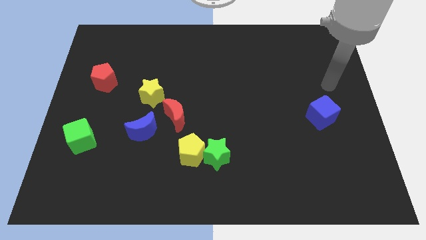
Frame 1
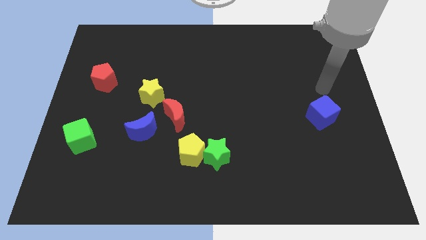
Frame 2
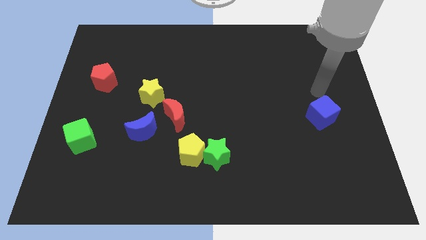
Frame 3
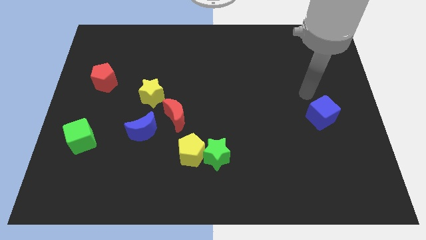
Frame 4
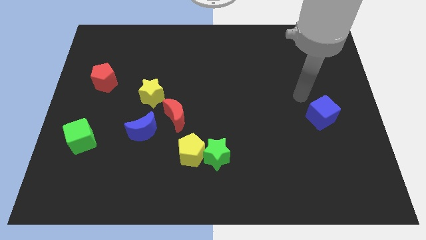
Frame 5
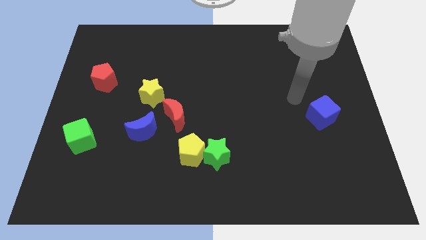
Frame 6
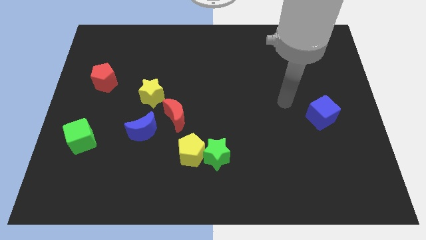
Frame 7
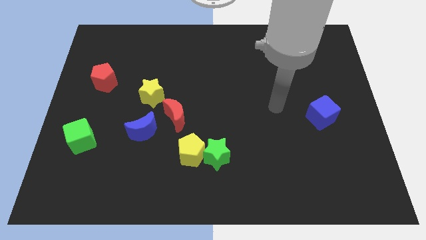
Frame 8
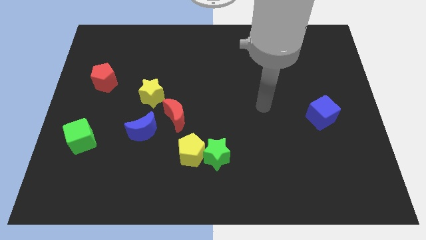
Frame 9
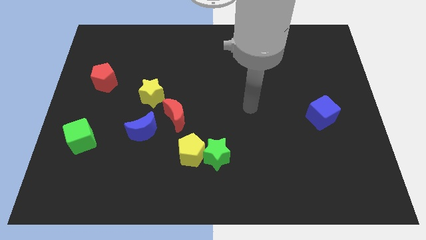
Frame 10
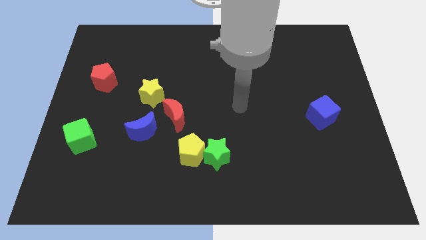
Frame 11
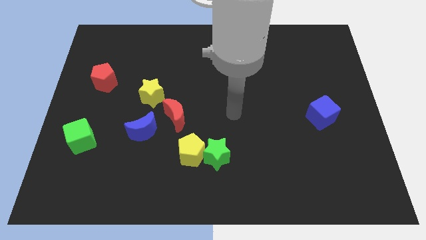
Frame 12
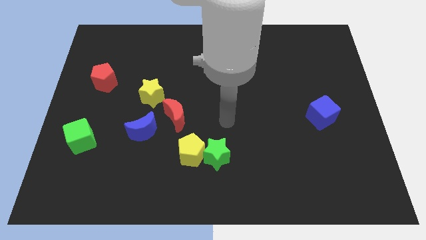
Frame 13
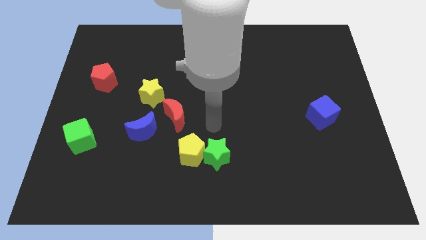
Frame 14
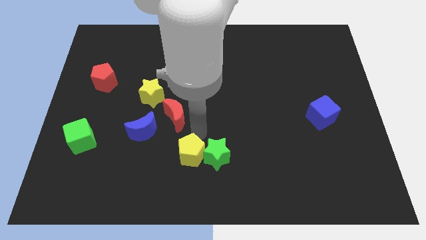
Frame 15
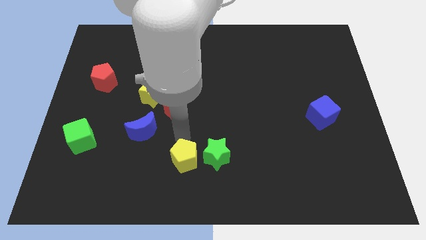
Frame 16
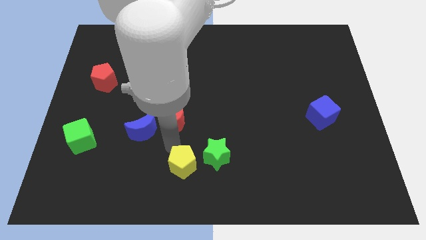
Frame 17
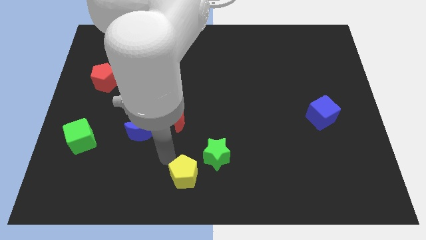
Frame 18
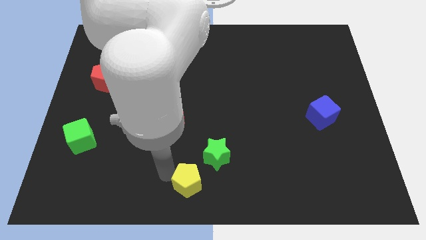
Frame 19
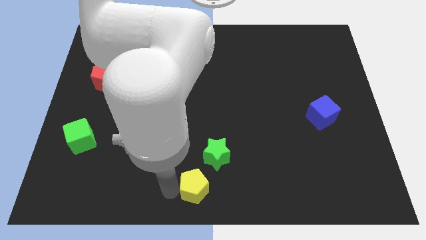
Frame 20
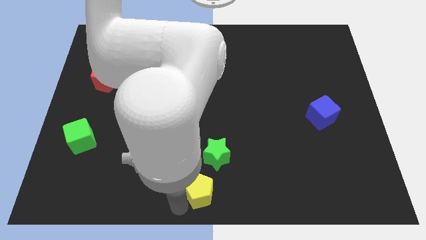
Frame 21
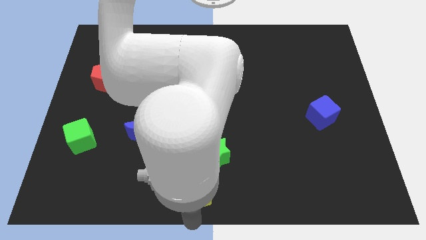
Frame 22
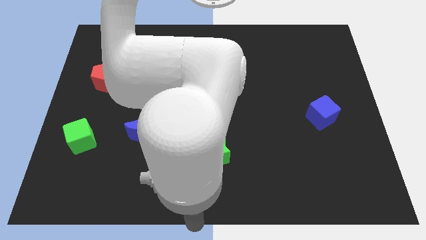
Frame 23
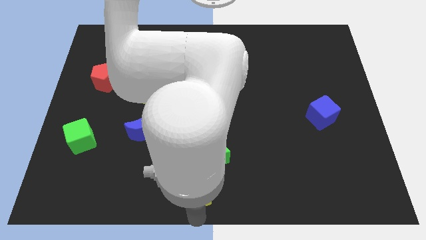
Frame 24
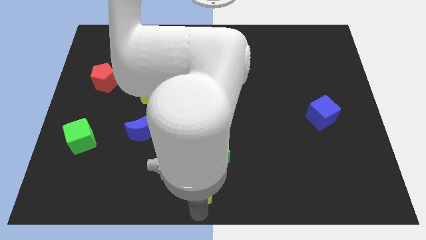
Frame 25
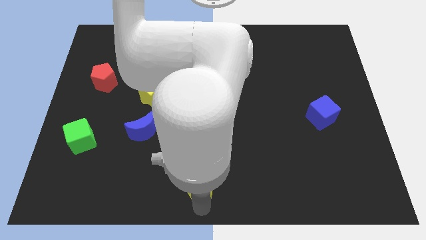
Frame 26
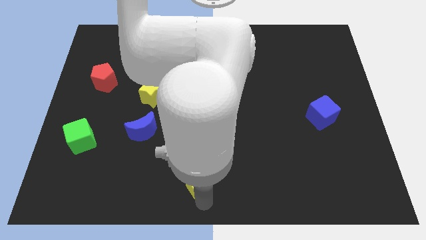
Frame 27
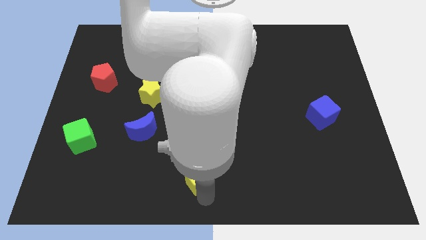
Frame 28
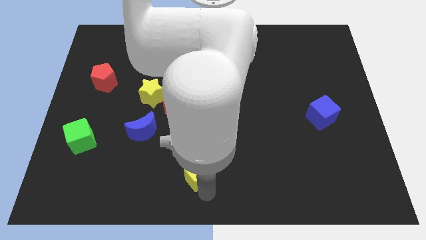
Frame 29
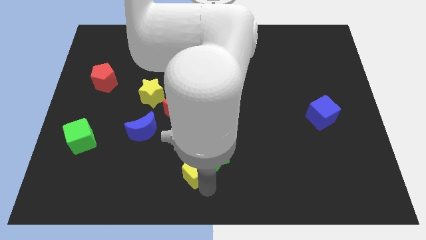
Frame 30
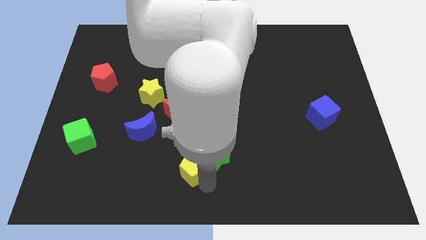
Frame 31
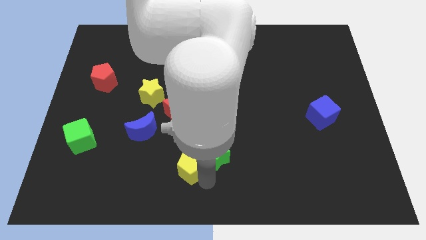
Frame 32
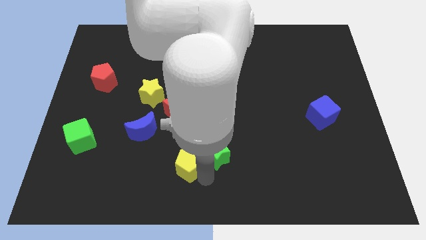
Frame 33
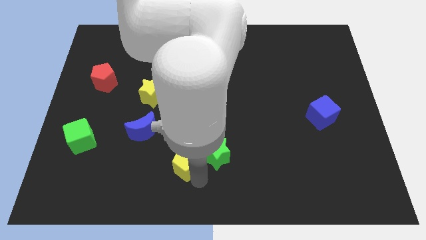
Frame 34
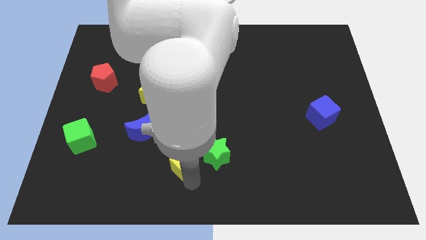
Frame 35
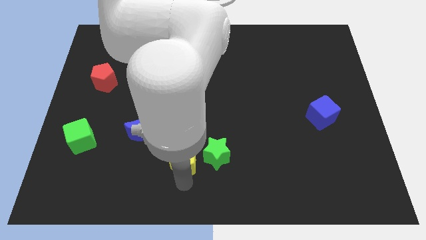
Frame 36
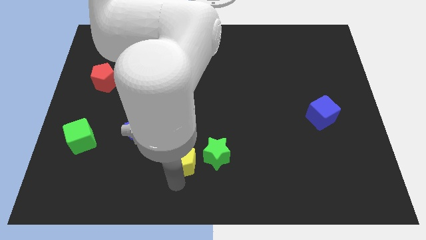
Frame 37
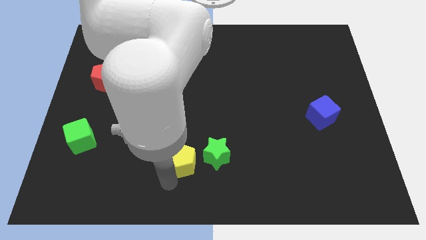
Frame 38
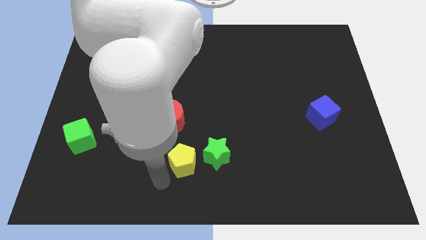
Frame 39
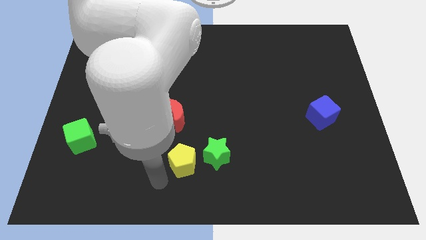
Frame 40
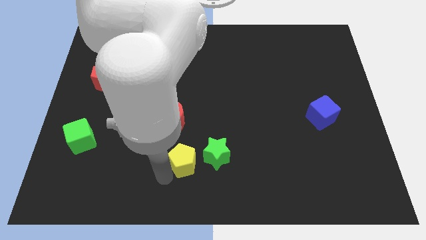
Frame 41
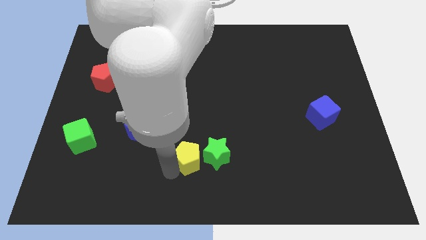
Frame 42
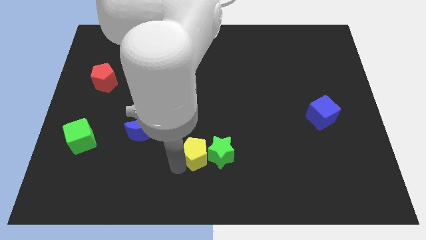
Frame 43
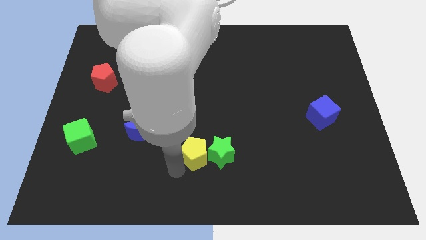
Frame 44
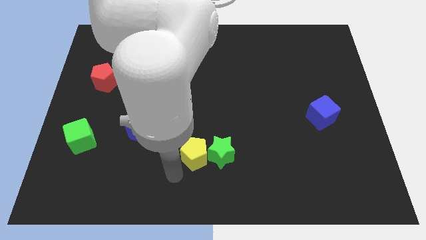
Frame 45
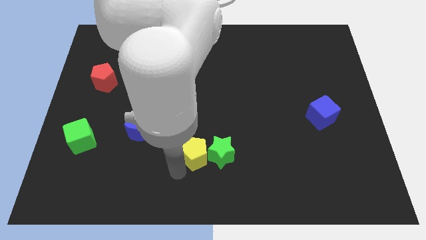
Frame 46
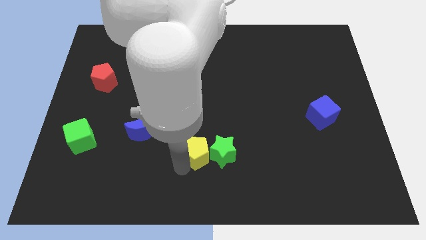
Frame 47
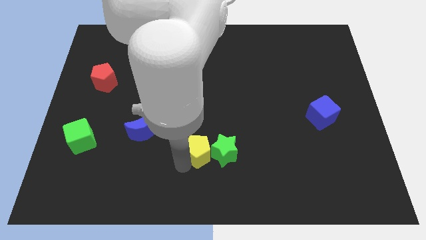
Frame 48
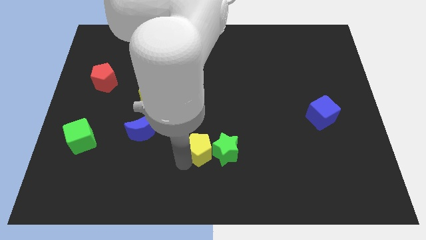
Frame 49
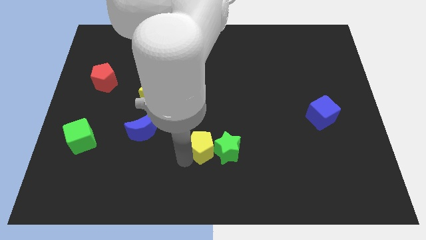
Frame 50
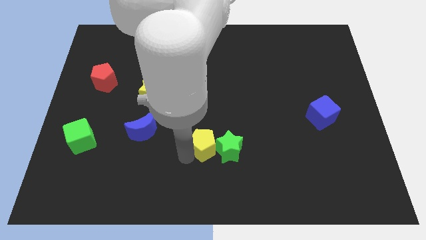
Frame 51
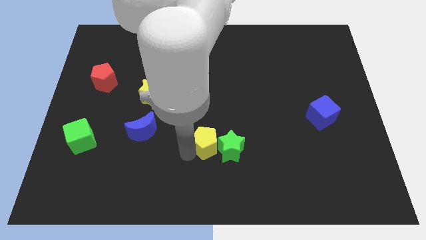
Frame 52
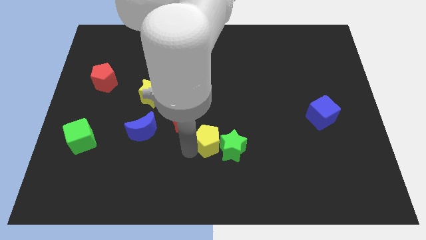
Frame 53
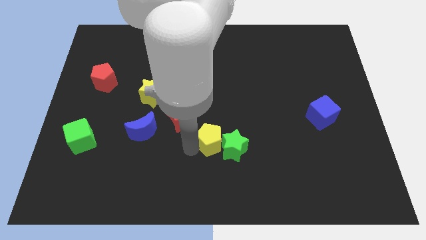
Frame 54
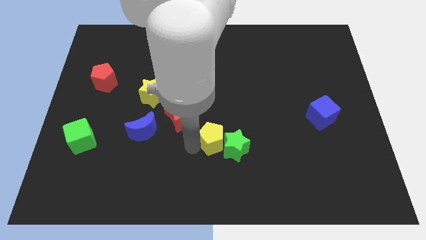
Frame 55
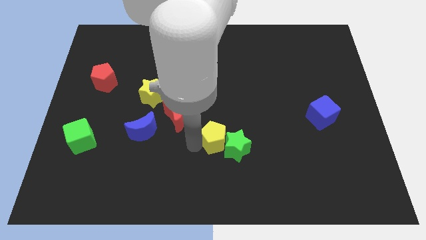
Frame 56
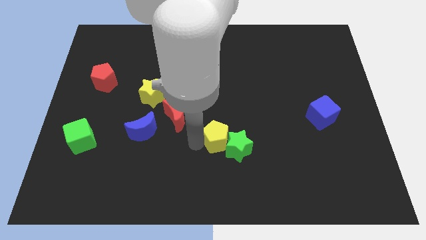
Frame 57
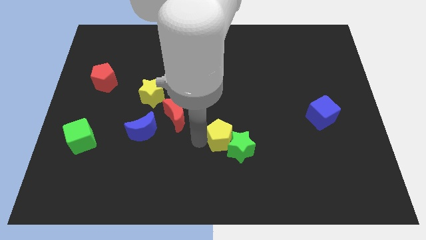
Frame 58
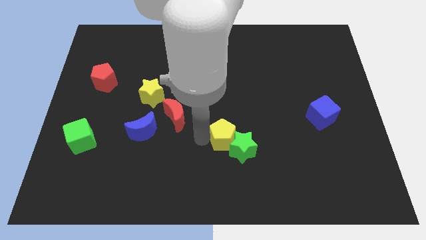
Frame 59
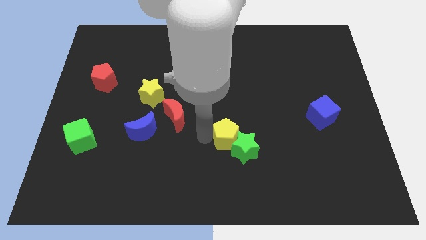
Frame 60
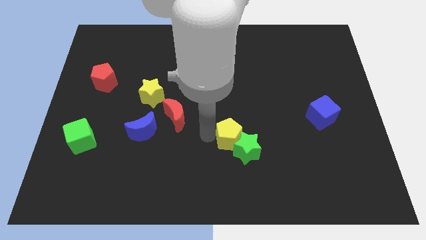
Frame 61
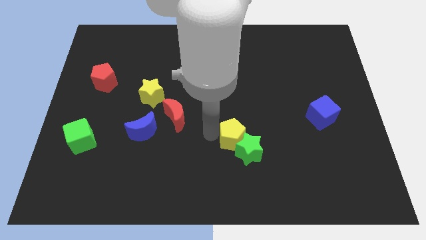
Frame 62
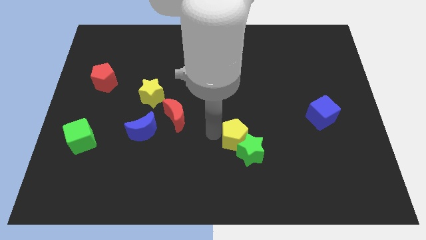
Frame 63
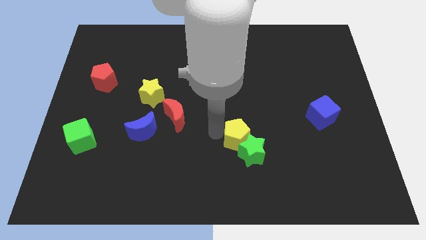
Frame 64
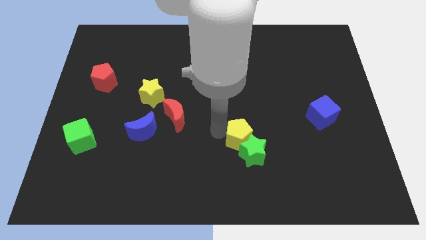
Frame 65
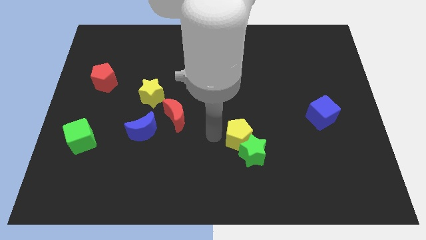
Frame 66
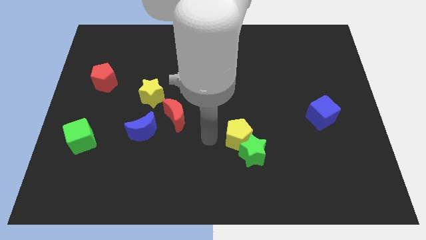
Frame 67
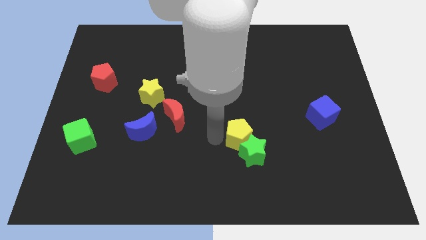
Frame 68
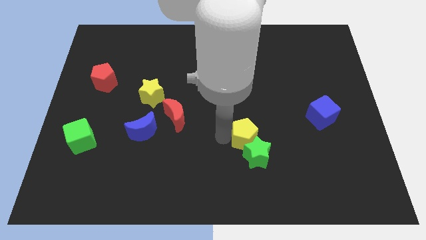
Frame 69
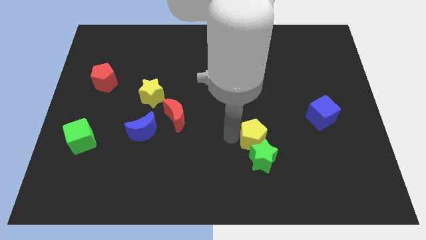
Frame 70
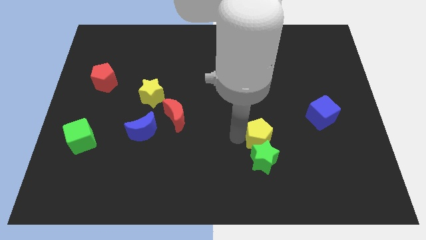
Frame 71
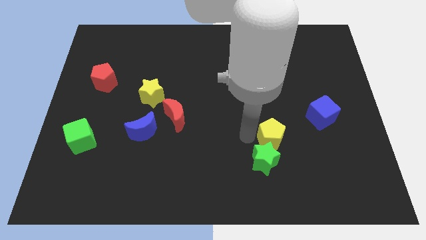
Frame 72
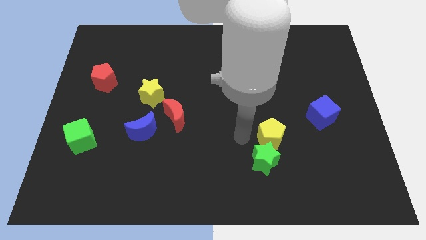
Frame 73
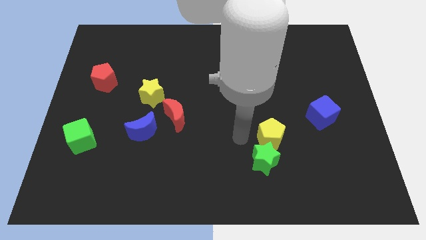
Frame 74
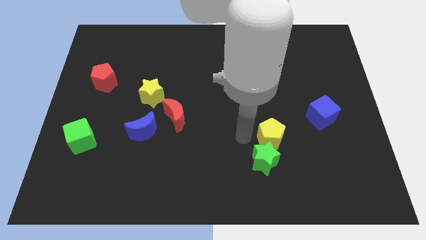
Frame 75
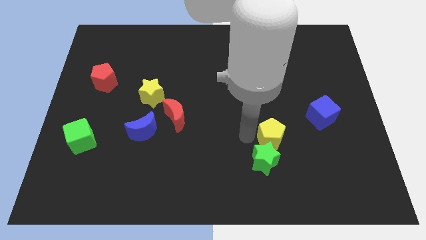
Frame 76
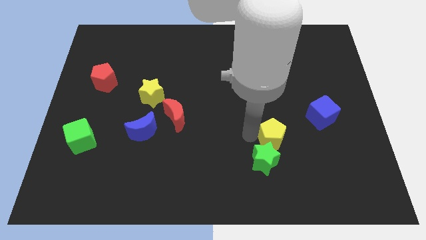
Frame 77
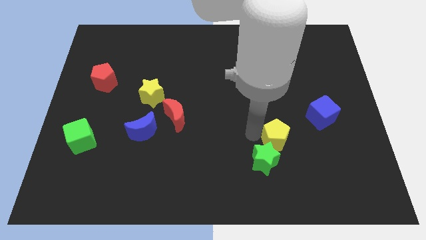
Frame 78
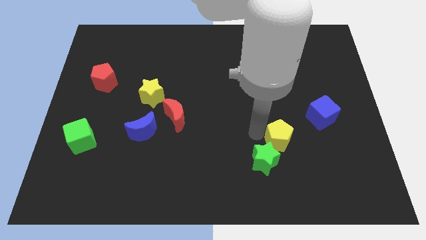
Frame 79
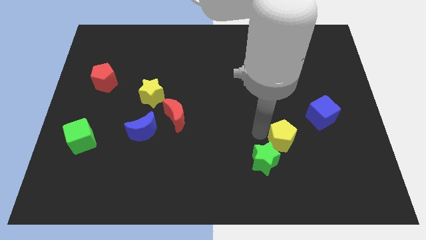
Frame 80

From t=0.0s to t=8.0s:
put the yellow pentagon diagonally down and to the left of the blue cube

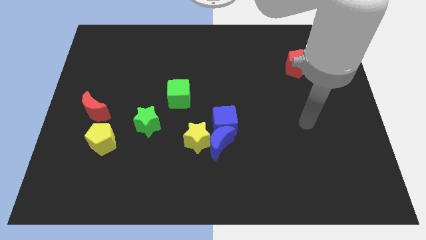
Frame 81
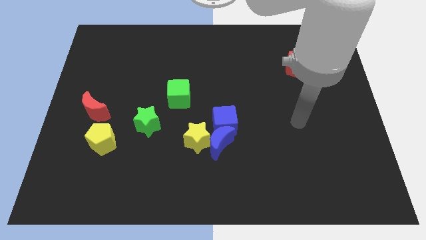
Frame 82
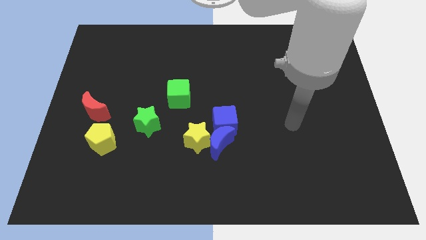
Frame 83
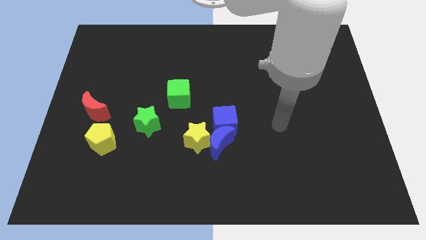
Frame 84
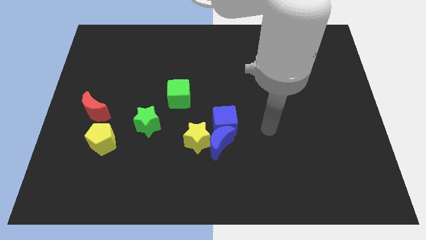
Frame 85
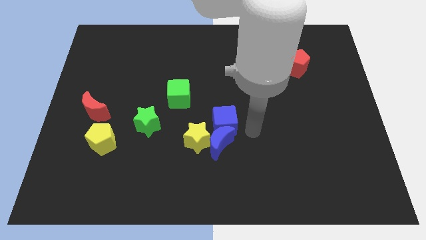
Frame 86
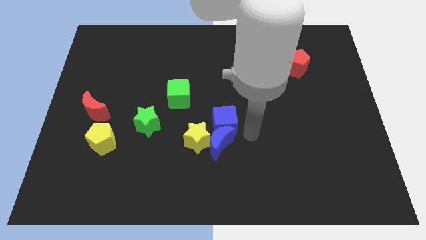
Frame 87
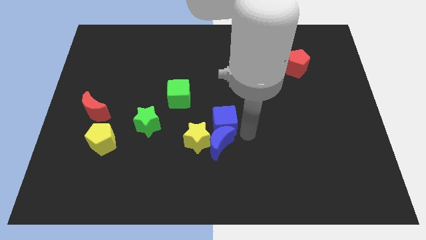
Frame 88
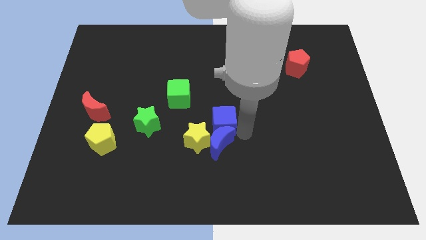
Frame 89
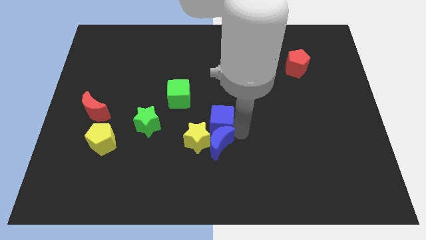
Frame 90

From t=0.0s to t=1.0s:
put the blue cube diagonally down and to the right of the green cube
